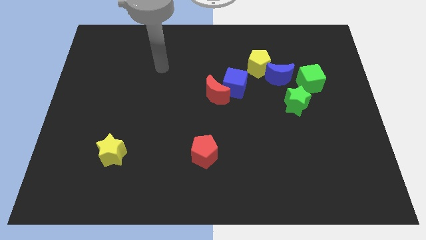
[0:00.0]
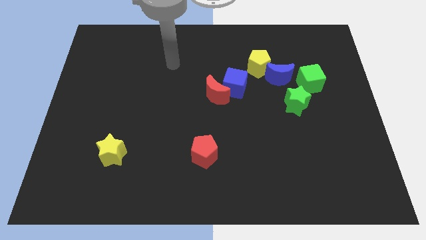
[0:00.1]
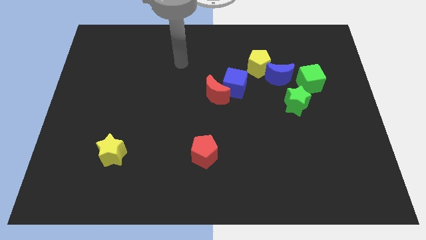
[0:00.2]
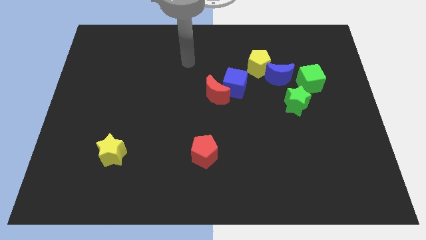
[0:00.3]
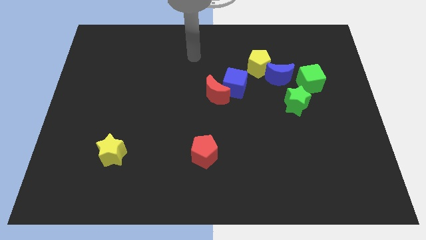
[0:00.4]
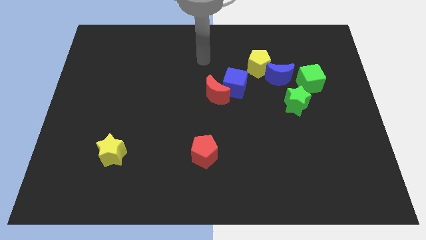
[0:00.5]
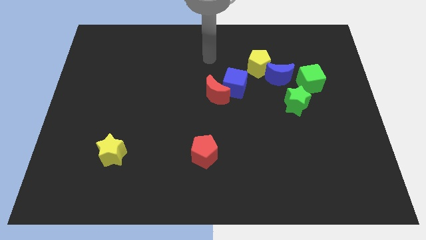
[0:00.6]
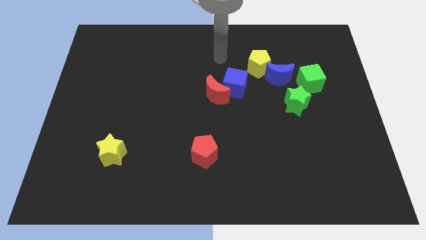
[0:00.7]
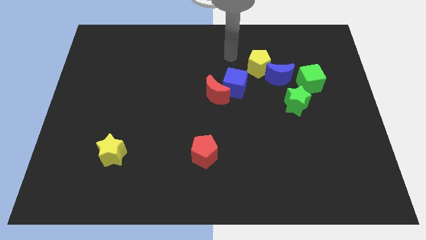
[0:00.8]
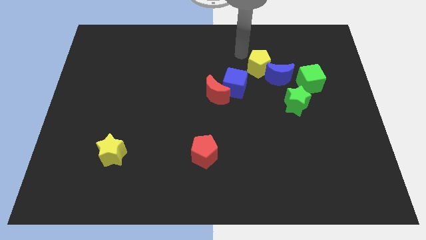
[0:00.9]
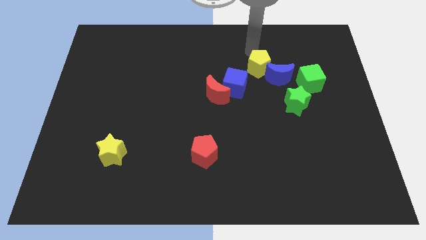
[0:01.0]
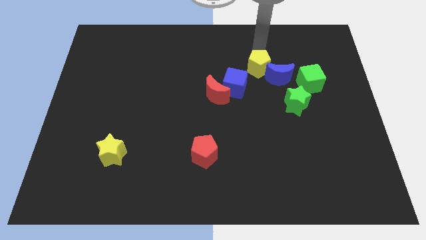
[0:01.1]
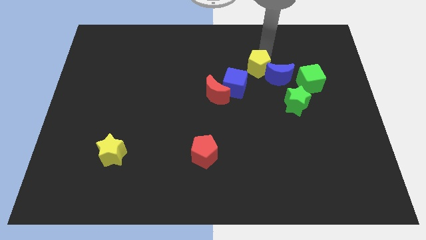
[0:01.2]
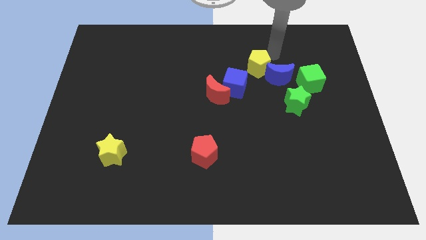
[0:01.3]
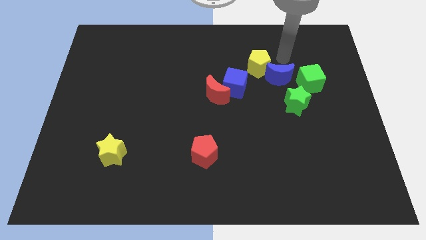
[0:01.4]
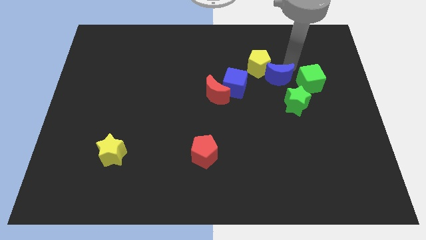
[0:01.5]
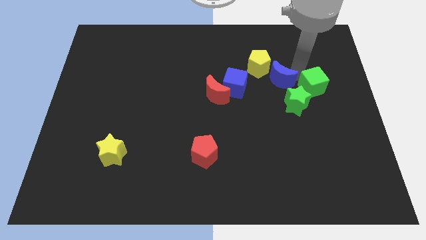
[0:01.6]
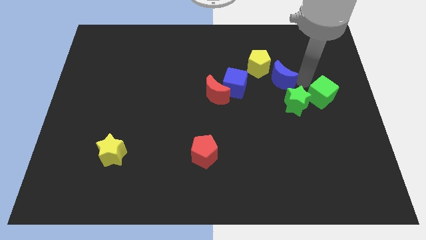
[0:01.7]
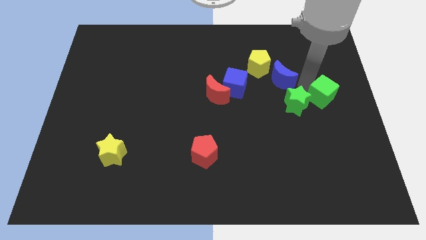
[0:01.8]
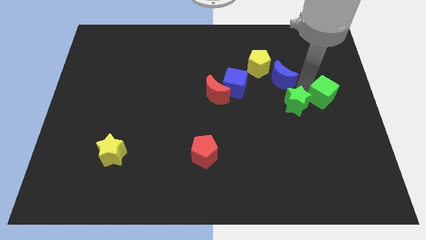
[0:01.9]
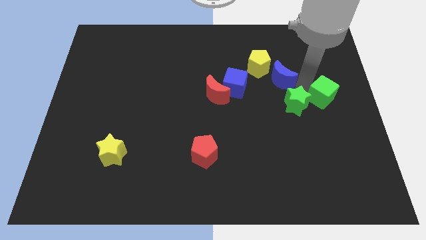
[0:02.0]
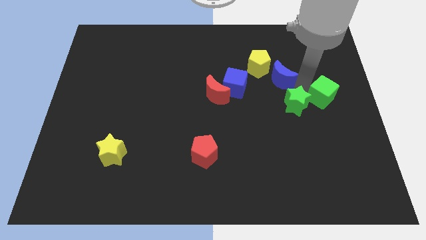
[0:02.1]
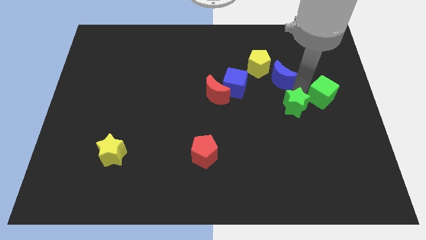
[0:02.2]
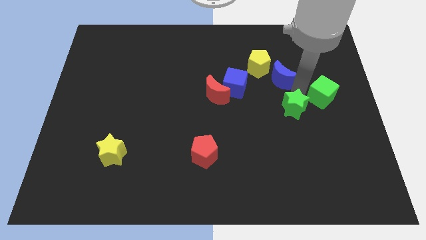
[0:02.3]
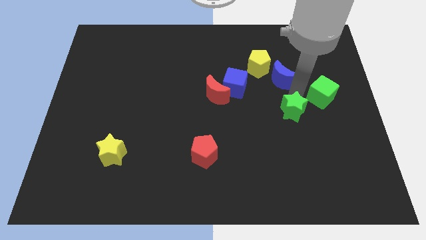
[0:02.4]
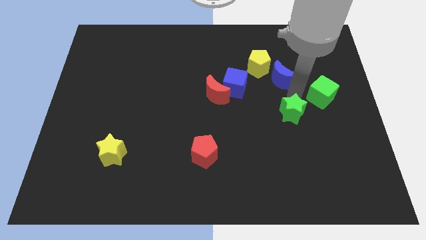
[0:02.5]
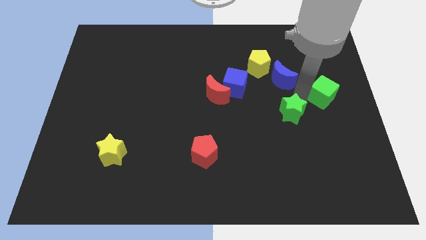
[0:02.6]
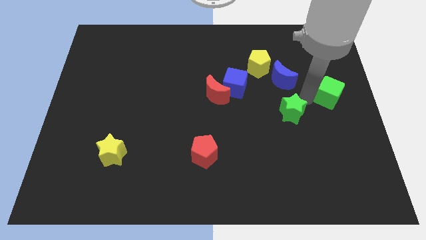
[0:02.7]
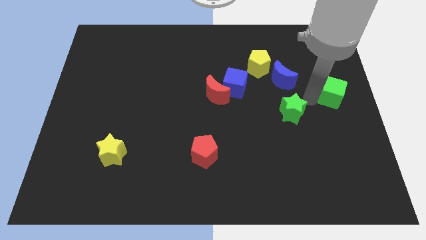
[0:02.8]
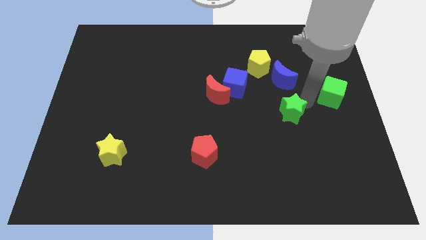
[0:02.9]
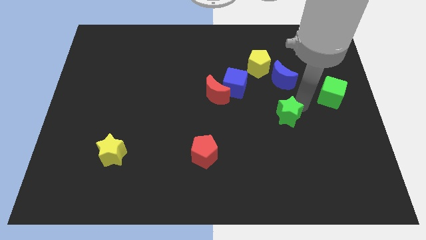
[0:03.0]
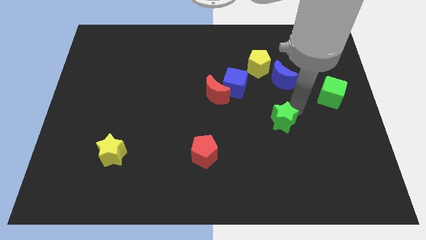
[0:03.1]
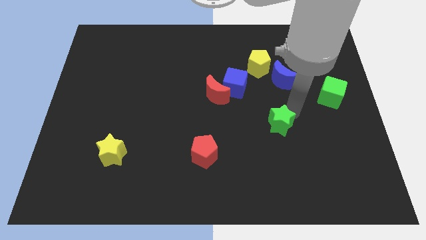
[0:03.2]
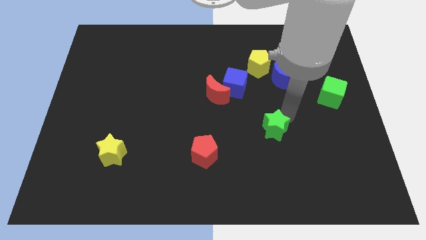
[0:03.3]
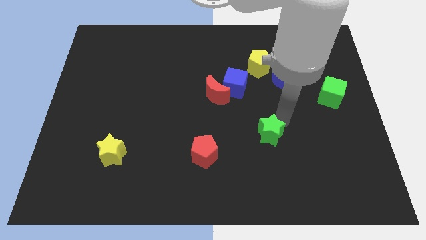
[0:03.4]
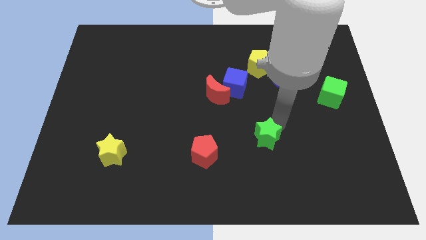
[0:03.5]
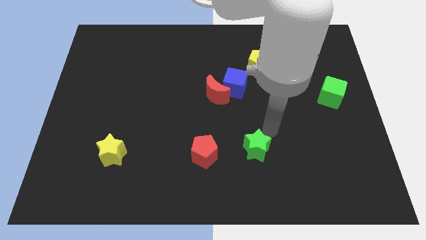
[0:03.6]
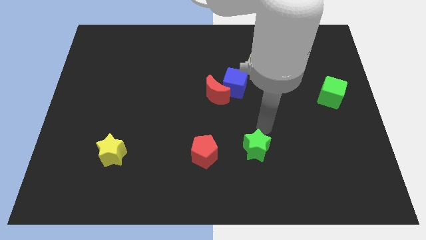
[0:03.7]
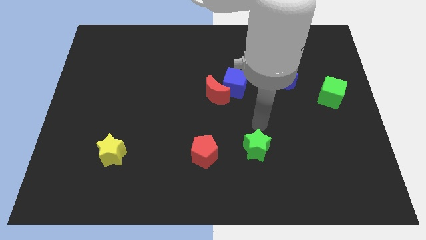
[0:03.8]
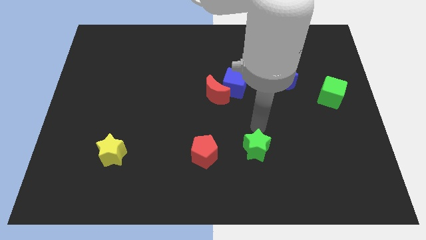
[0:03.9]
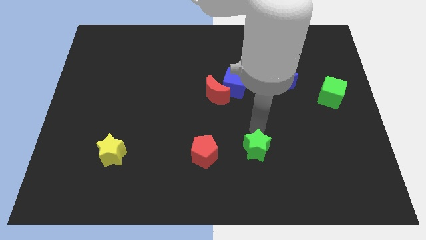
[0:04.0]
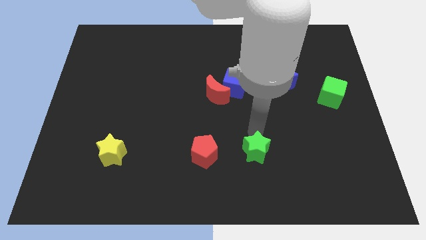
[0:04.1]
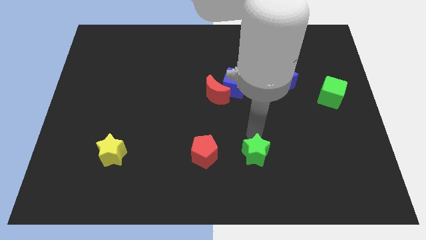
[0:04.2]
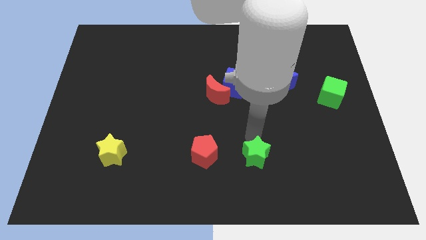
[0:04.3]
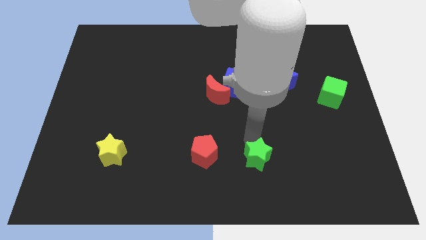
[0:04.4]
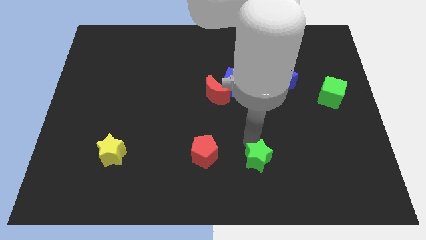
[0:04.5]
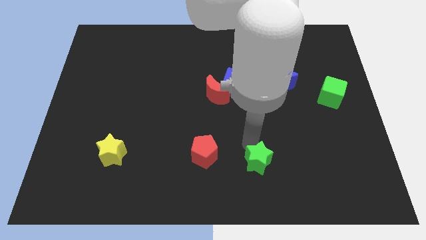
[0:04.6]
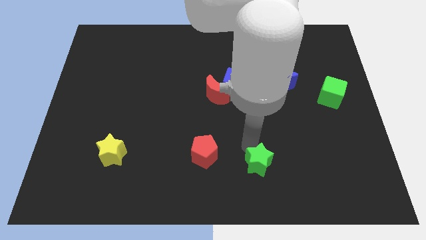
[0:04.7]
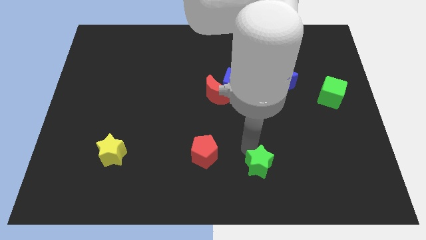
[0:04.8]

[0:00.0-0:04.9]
move the green star to the bottom side

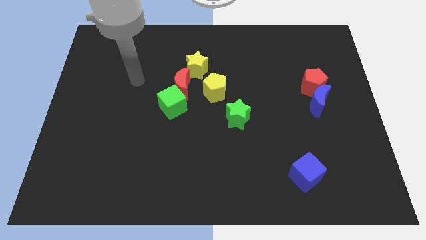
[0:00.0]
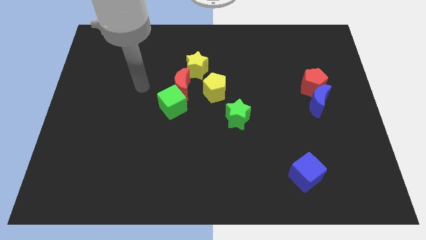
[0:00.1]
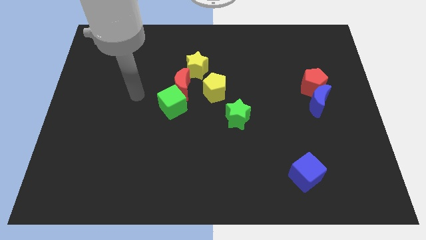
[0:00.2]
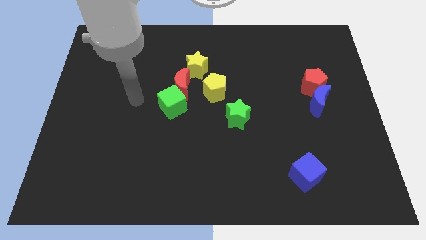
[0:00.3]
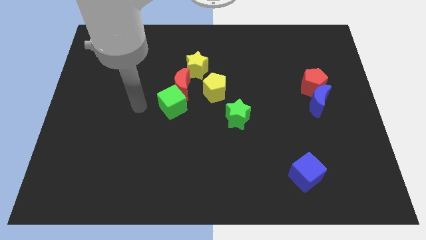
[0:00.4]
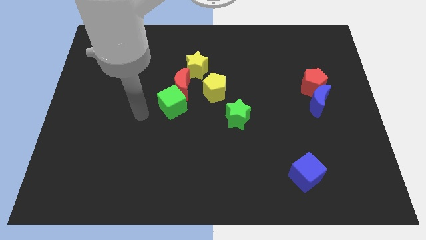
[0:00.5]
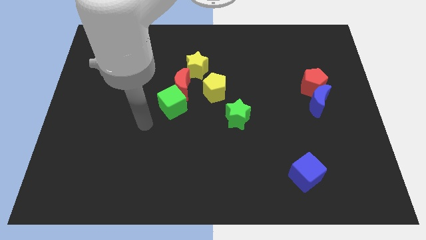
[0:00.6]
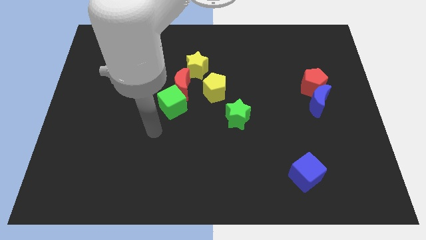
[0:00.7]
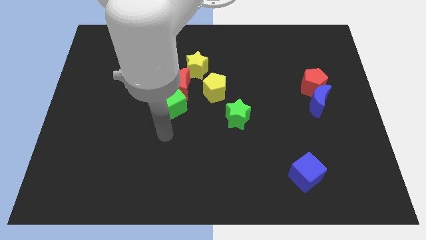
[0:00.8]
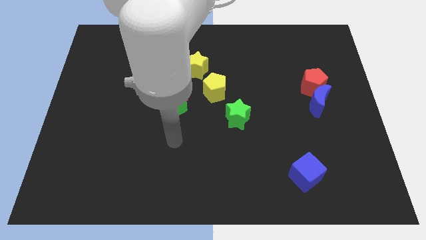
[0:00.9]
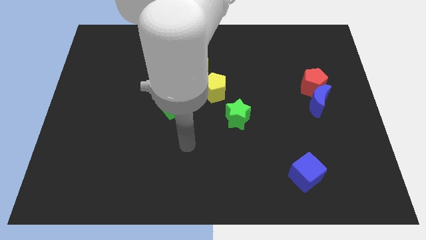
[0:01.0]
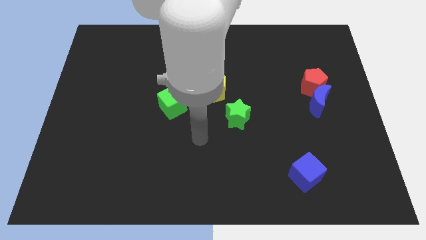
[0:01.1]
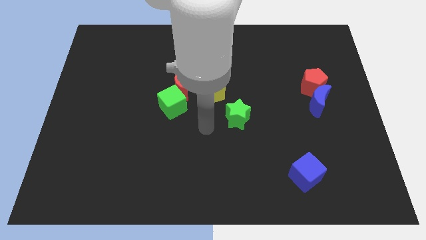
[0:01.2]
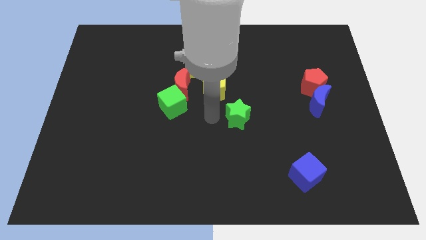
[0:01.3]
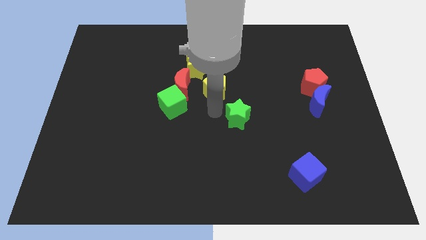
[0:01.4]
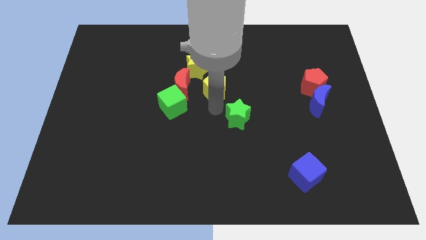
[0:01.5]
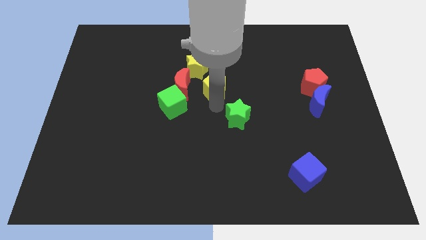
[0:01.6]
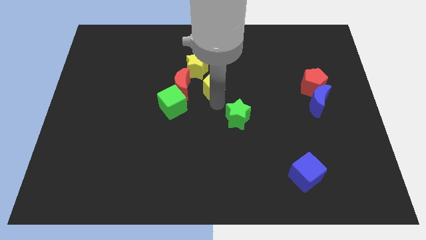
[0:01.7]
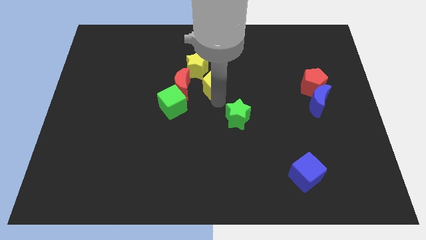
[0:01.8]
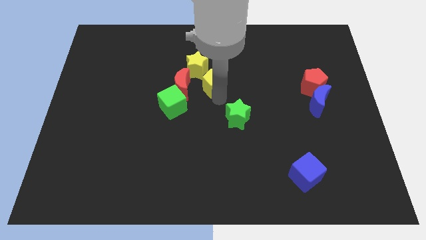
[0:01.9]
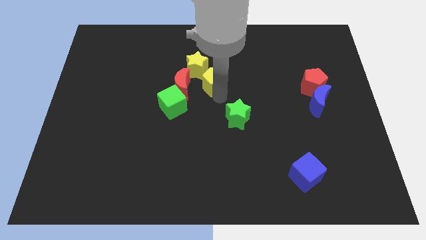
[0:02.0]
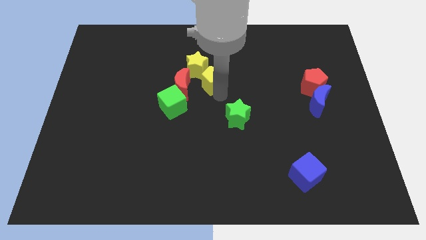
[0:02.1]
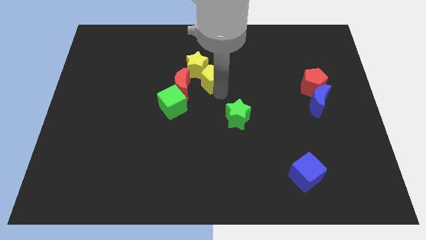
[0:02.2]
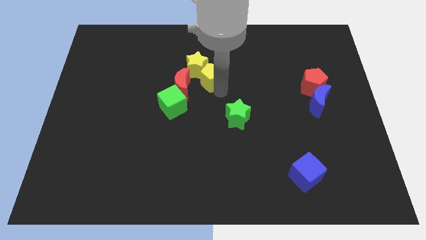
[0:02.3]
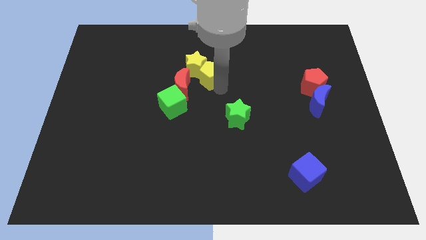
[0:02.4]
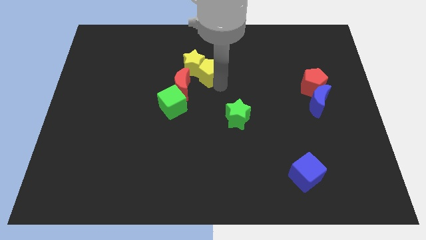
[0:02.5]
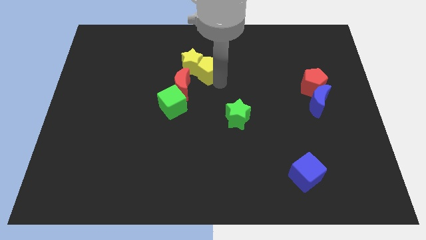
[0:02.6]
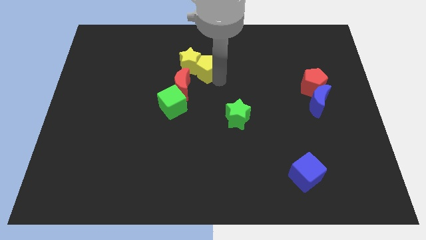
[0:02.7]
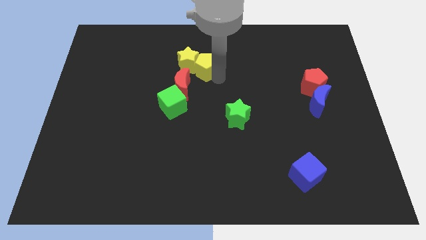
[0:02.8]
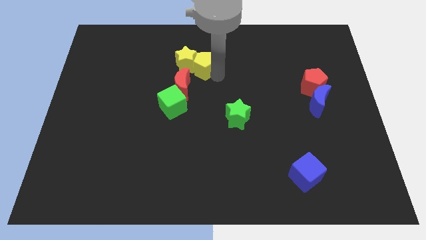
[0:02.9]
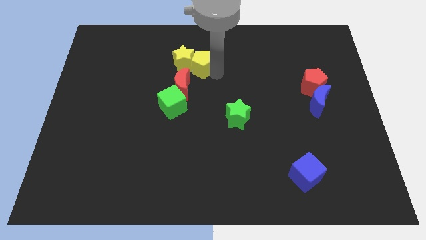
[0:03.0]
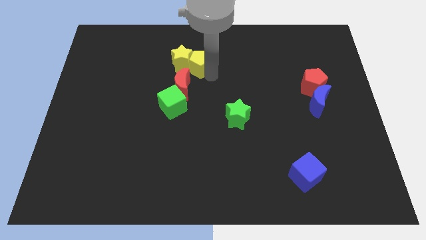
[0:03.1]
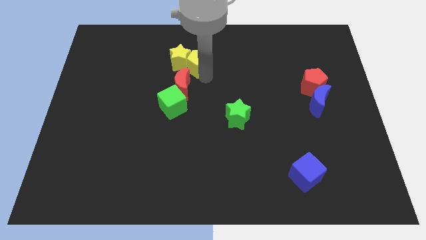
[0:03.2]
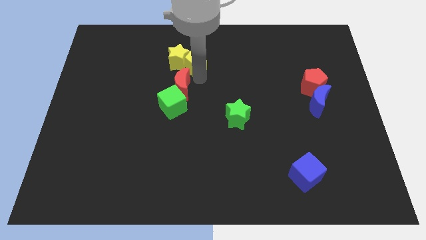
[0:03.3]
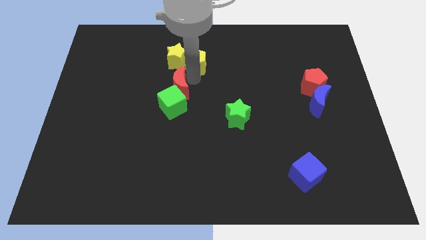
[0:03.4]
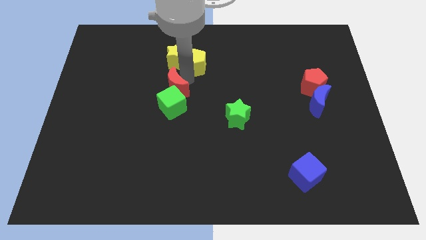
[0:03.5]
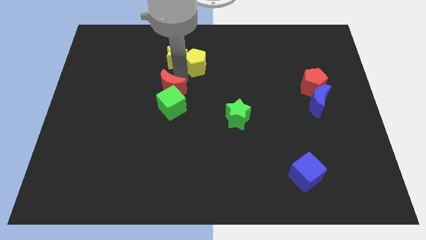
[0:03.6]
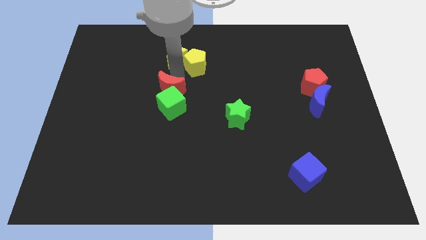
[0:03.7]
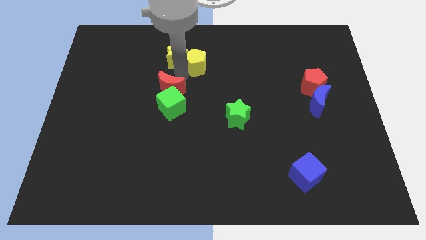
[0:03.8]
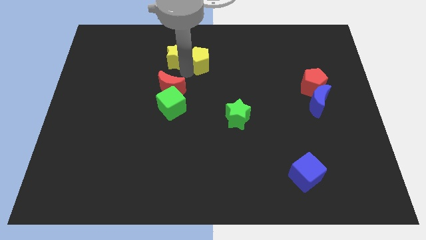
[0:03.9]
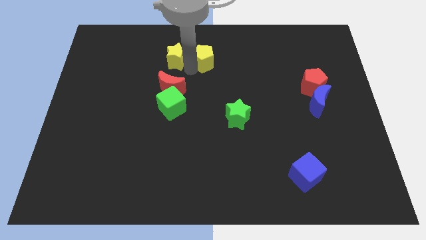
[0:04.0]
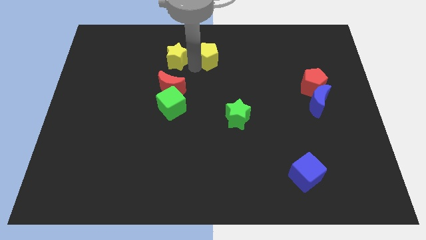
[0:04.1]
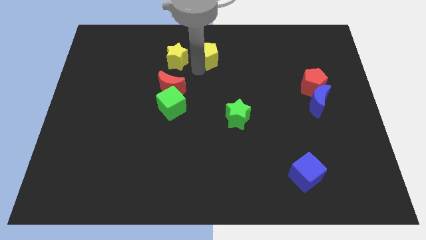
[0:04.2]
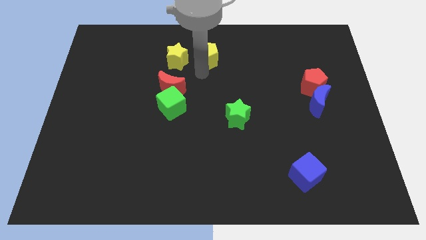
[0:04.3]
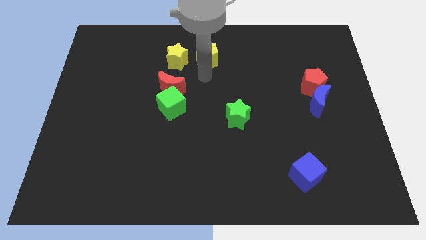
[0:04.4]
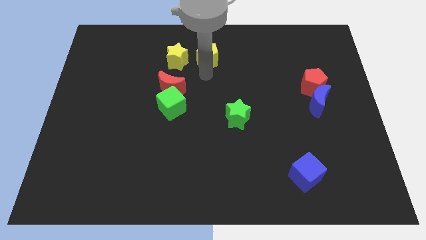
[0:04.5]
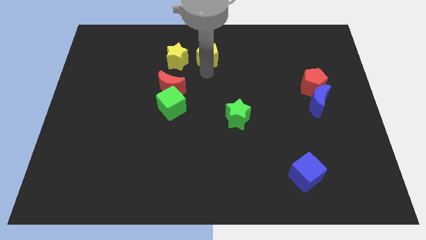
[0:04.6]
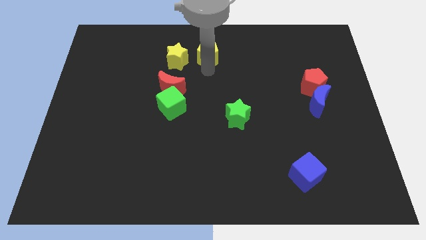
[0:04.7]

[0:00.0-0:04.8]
move the yellow pentagon to the top
